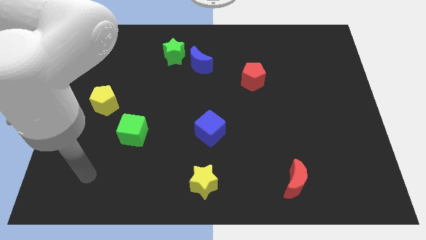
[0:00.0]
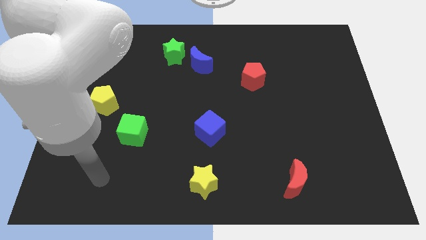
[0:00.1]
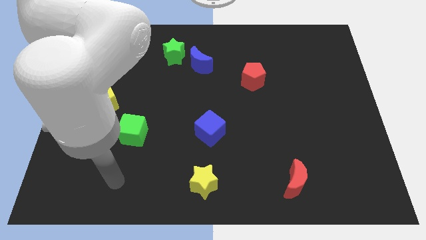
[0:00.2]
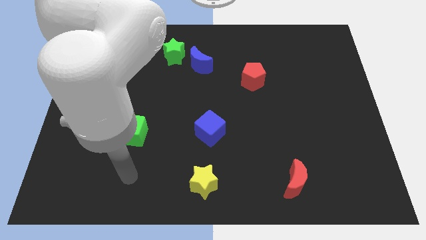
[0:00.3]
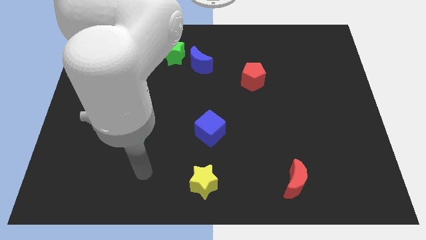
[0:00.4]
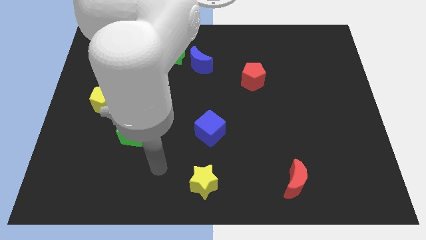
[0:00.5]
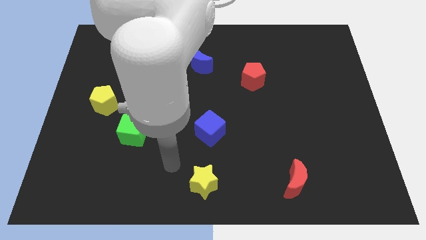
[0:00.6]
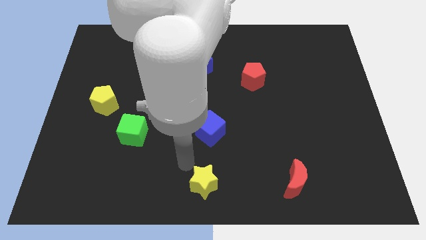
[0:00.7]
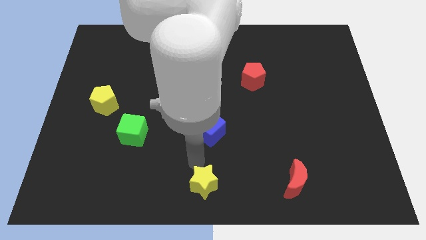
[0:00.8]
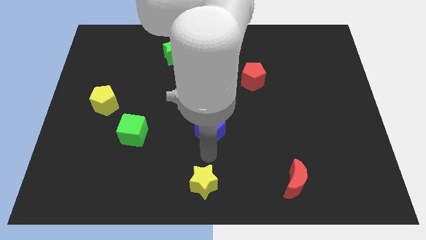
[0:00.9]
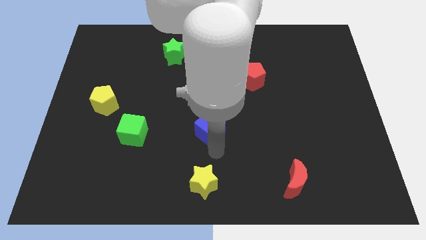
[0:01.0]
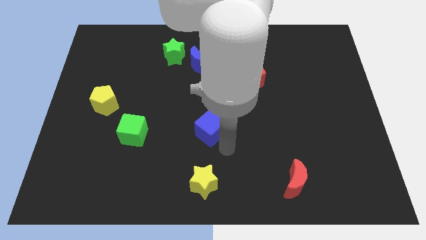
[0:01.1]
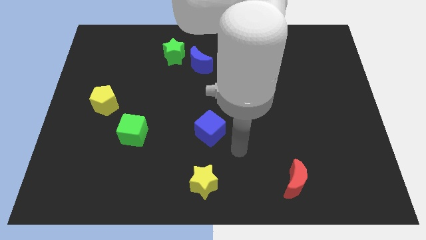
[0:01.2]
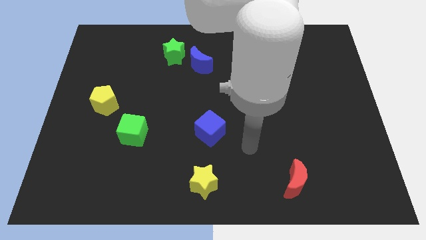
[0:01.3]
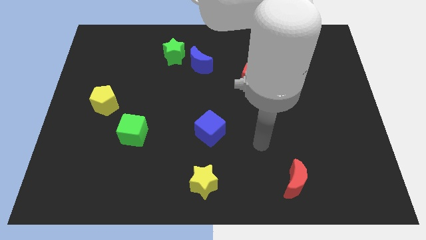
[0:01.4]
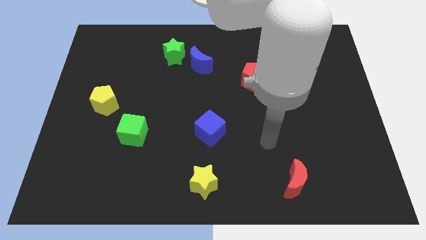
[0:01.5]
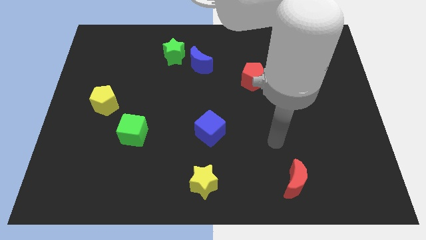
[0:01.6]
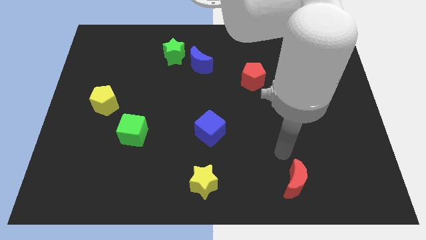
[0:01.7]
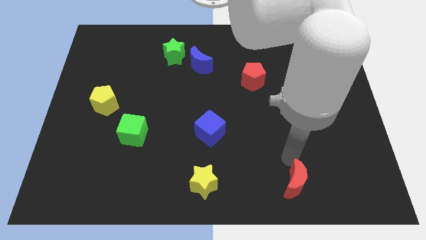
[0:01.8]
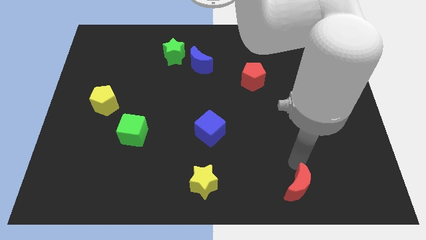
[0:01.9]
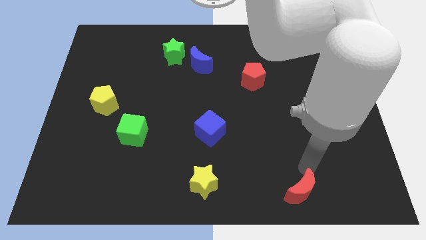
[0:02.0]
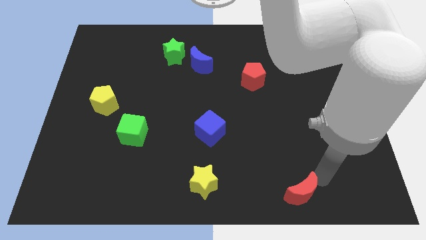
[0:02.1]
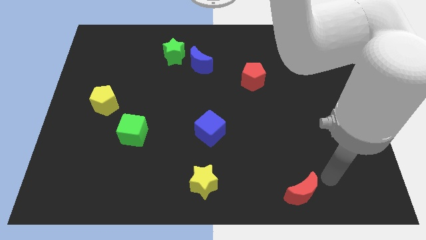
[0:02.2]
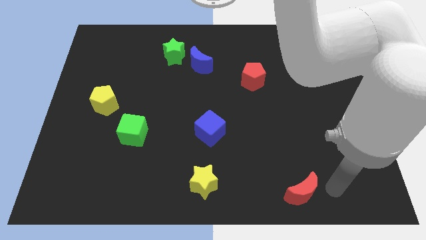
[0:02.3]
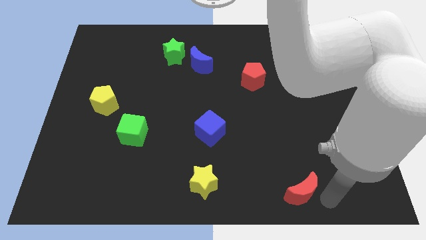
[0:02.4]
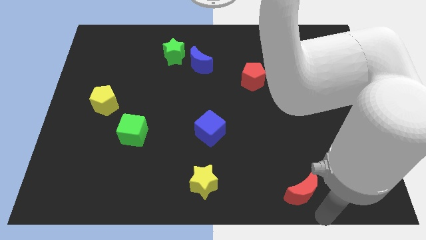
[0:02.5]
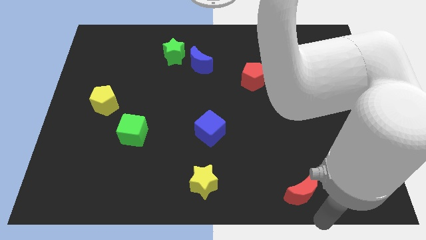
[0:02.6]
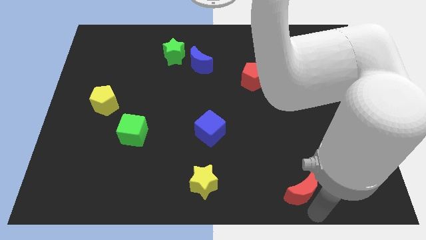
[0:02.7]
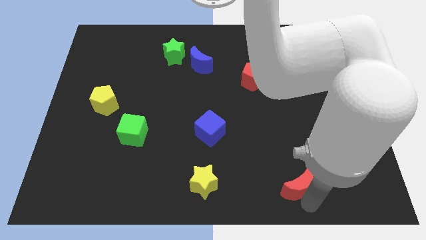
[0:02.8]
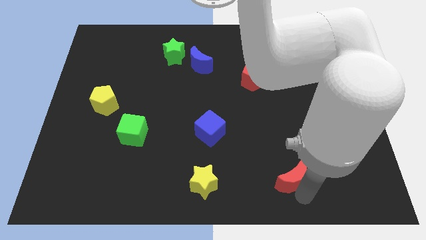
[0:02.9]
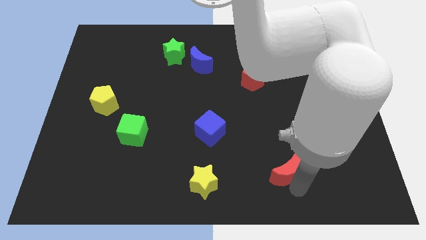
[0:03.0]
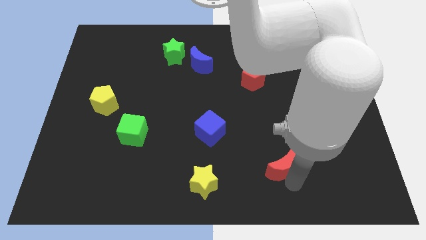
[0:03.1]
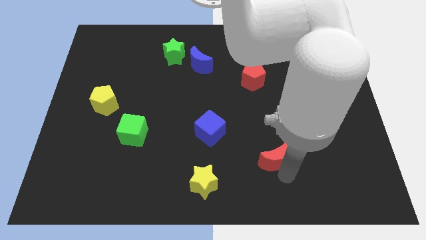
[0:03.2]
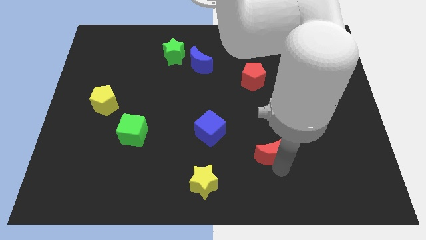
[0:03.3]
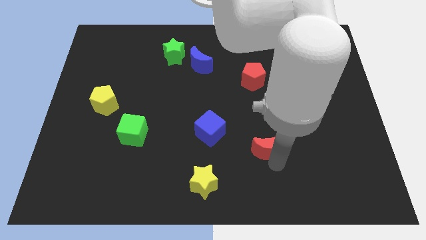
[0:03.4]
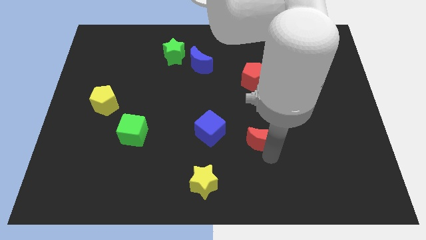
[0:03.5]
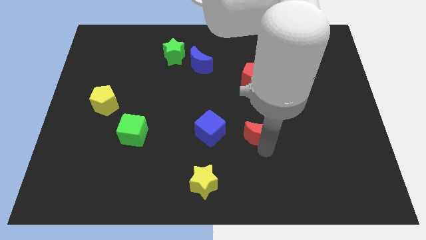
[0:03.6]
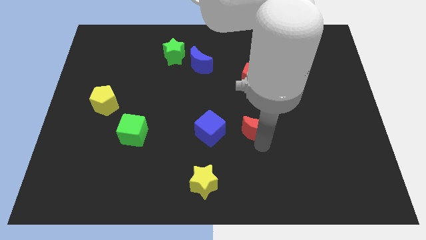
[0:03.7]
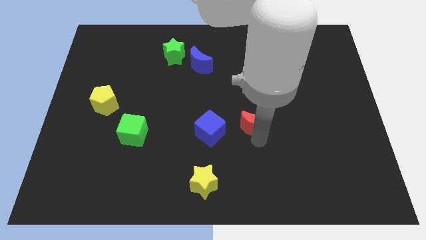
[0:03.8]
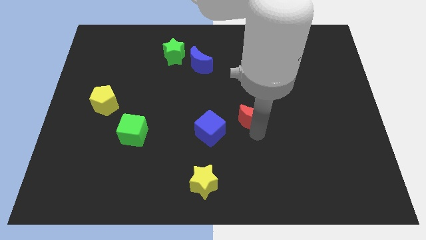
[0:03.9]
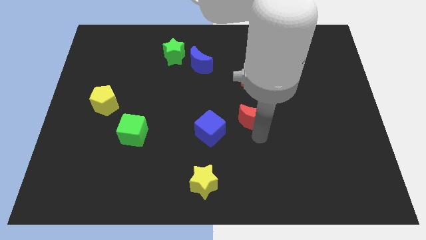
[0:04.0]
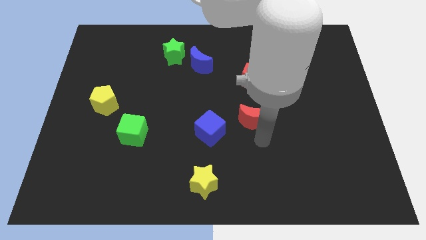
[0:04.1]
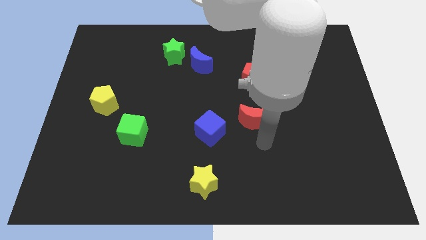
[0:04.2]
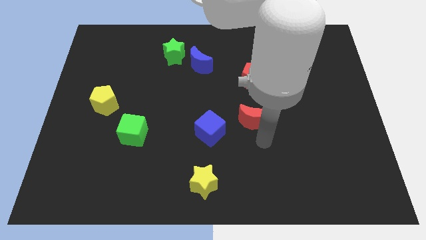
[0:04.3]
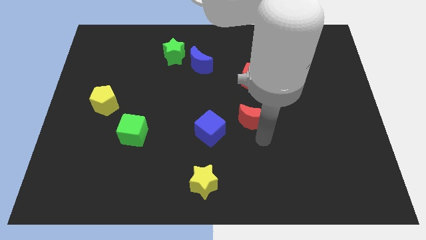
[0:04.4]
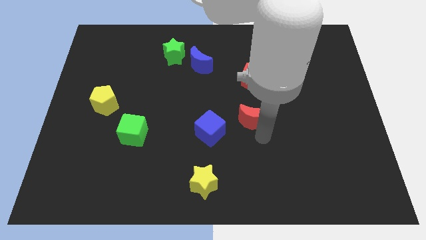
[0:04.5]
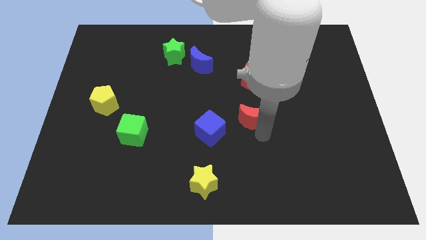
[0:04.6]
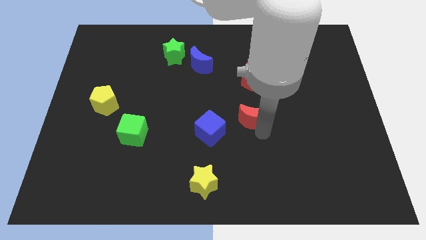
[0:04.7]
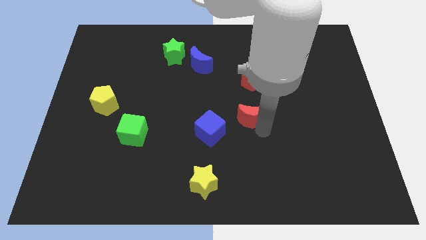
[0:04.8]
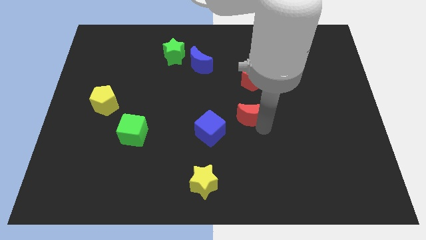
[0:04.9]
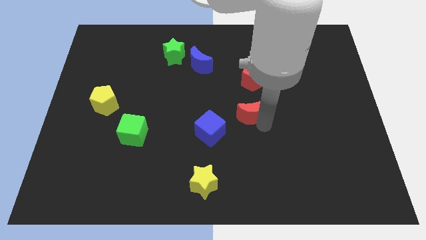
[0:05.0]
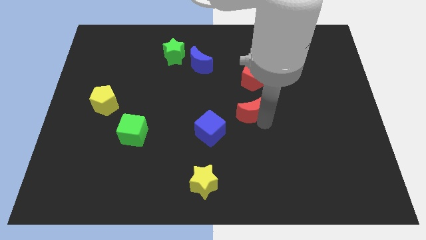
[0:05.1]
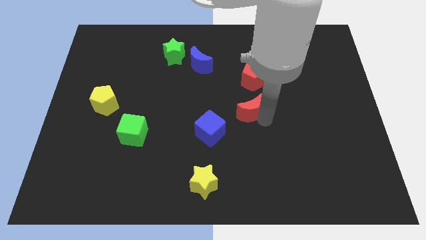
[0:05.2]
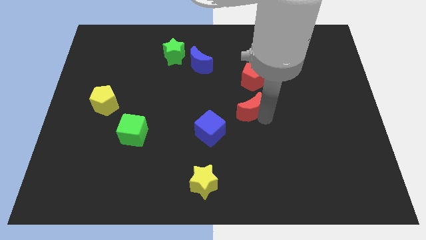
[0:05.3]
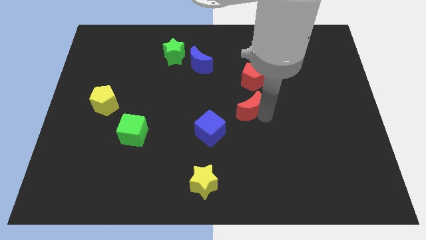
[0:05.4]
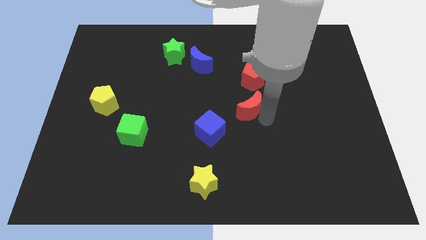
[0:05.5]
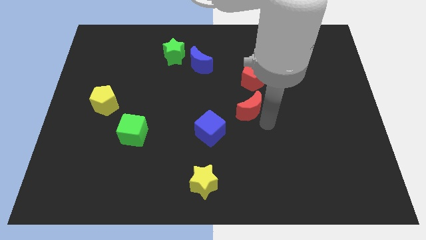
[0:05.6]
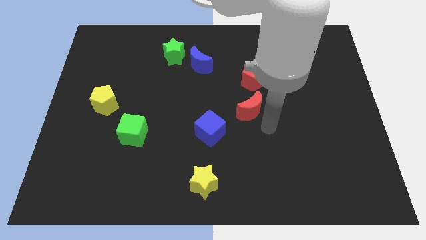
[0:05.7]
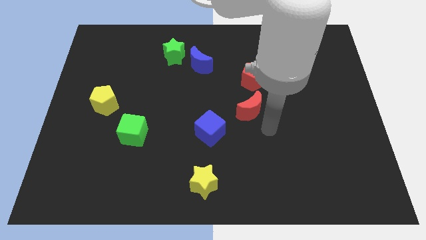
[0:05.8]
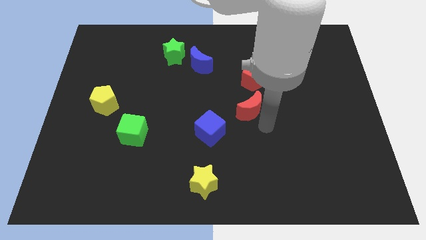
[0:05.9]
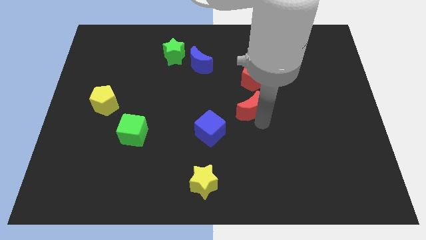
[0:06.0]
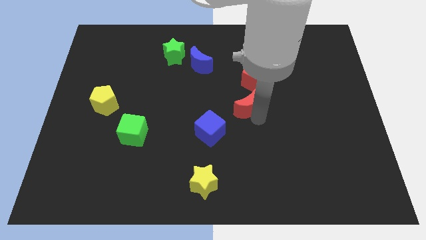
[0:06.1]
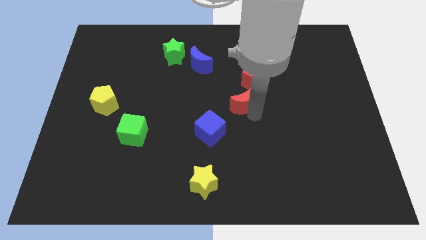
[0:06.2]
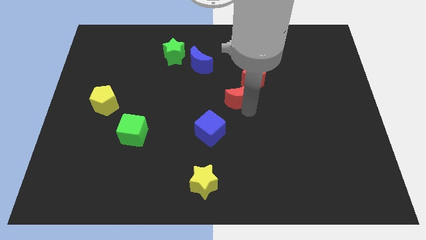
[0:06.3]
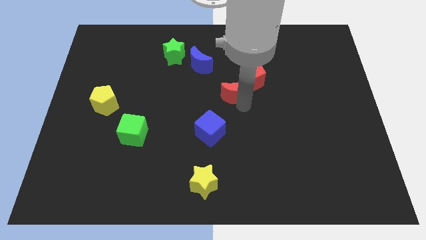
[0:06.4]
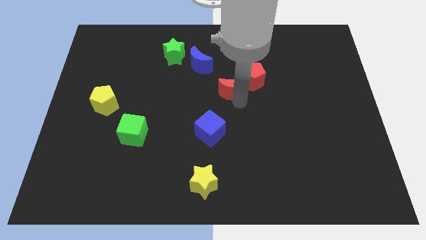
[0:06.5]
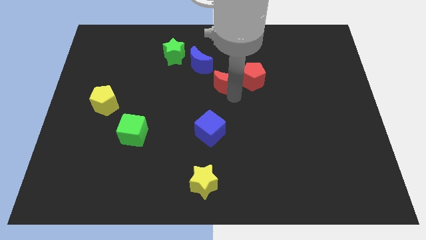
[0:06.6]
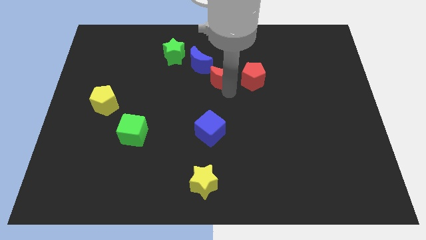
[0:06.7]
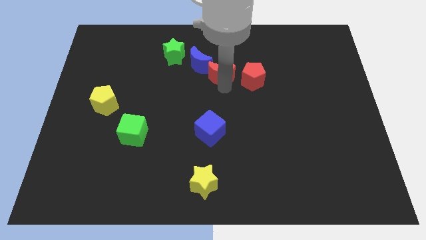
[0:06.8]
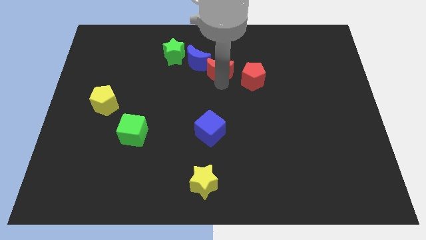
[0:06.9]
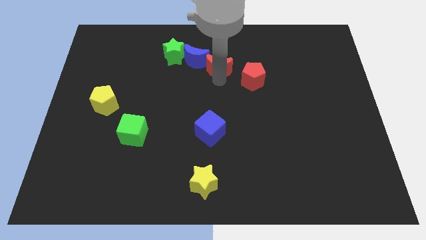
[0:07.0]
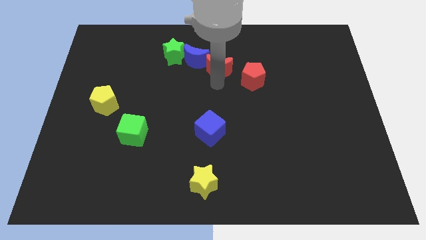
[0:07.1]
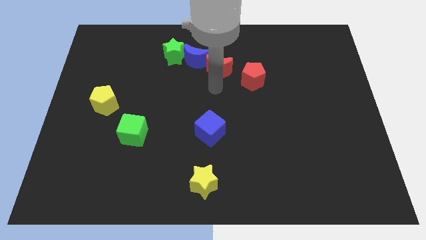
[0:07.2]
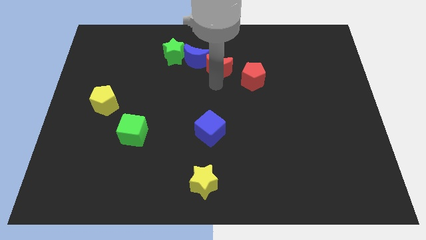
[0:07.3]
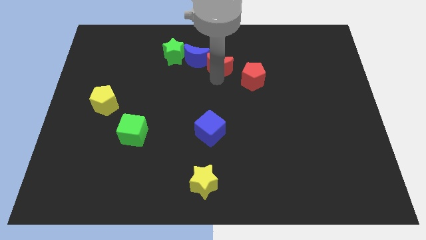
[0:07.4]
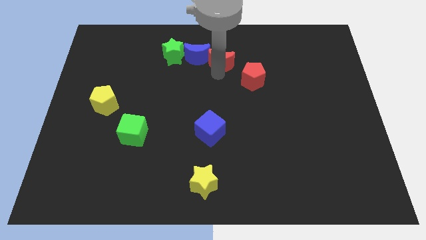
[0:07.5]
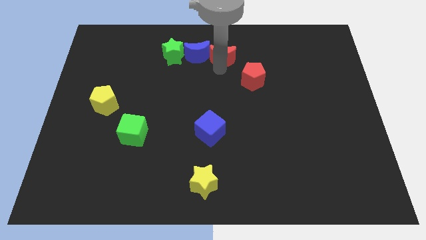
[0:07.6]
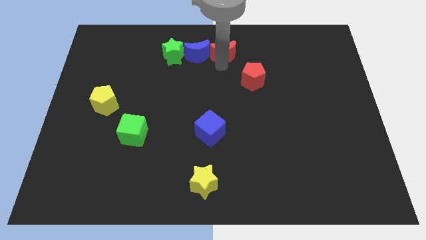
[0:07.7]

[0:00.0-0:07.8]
slide the red moon to the top side
